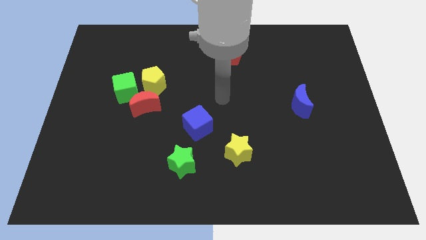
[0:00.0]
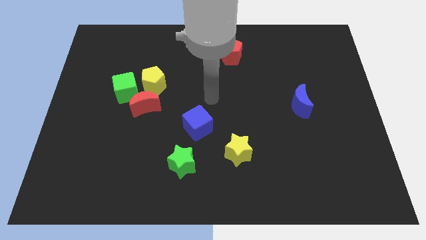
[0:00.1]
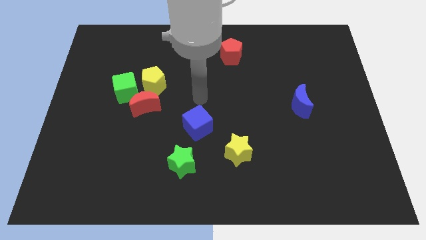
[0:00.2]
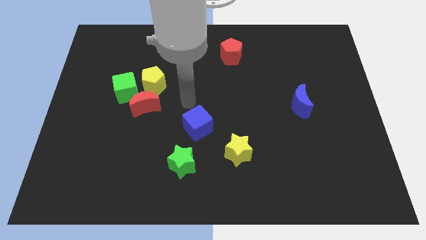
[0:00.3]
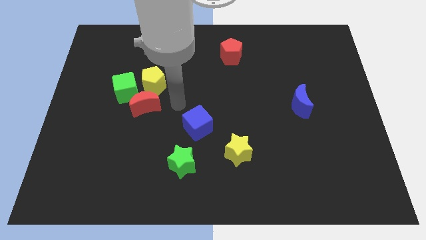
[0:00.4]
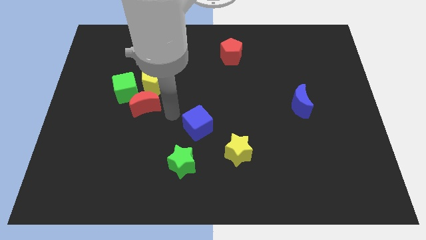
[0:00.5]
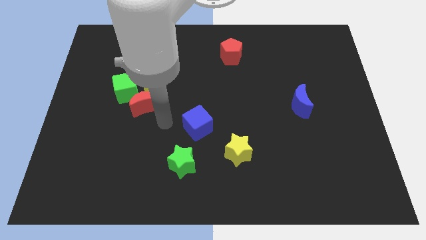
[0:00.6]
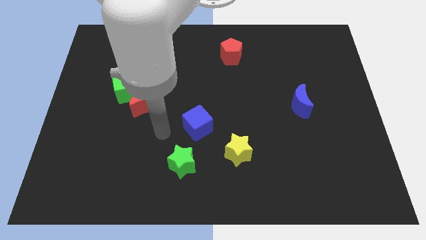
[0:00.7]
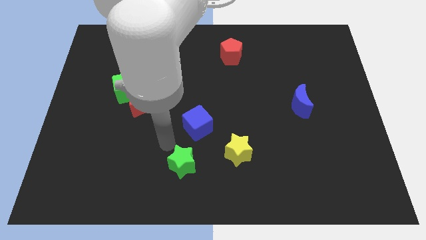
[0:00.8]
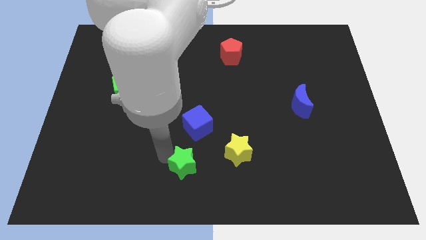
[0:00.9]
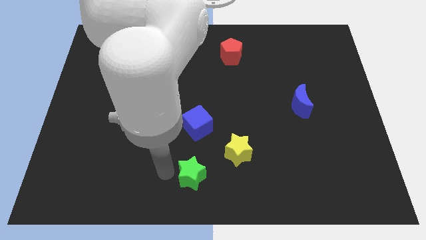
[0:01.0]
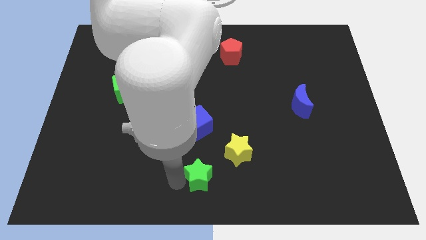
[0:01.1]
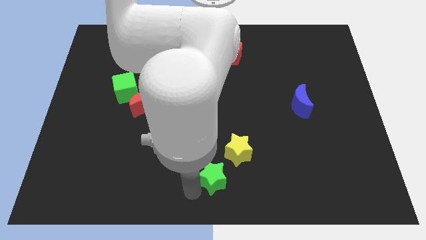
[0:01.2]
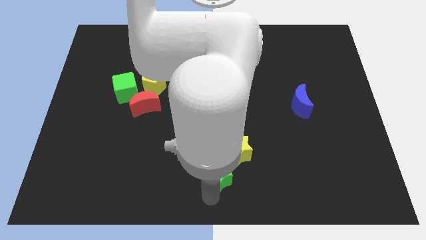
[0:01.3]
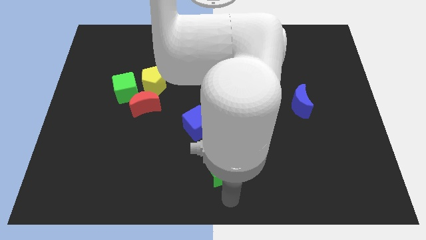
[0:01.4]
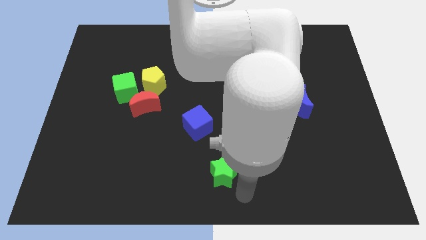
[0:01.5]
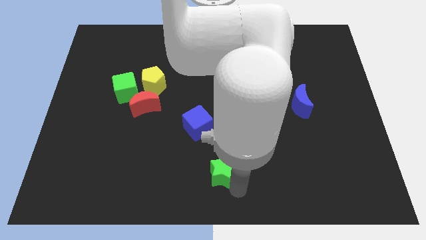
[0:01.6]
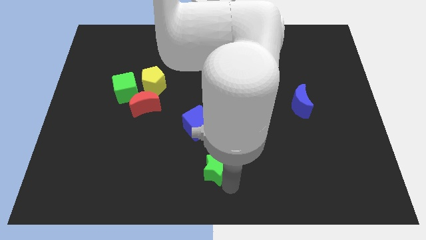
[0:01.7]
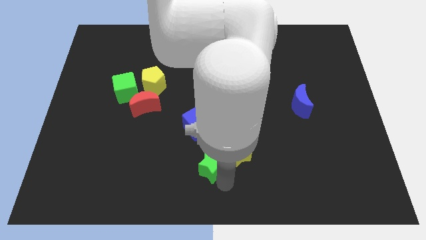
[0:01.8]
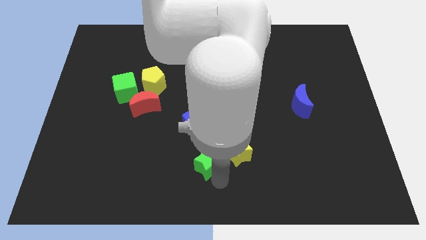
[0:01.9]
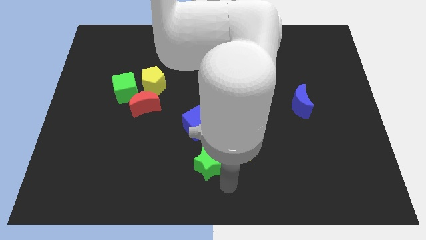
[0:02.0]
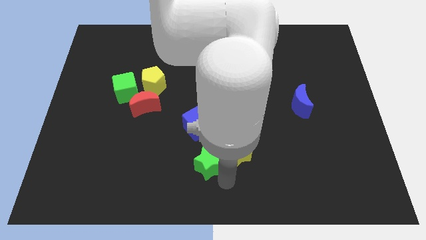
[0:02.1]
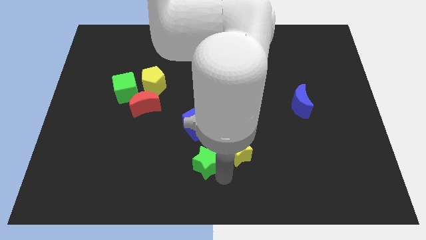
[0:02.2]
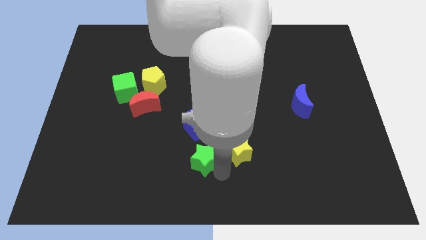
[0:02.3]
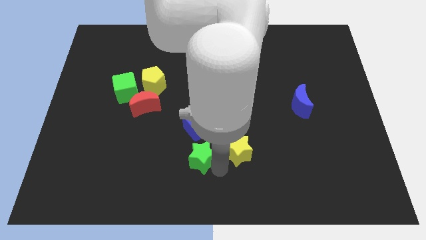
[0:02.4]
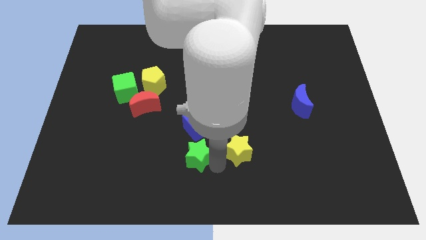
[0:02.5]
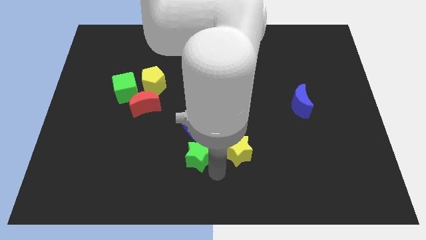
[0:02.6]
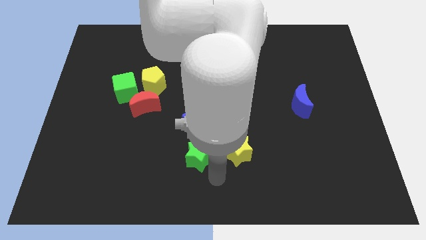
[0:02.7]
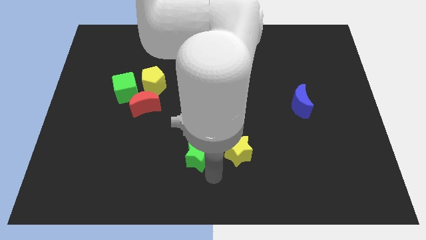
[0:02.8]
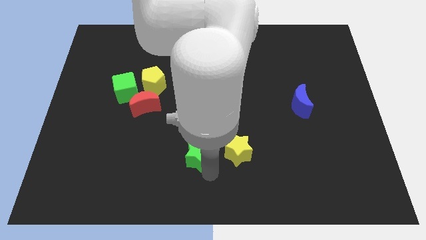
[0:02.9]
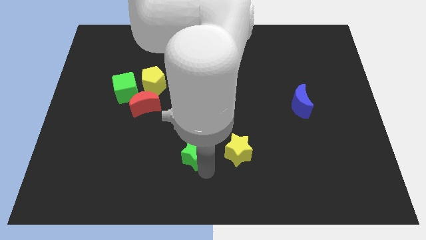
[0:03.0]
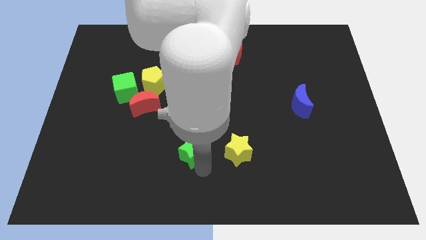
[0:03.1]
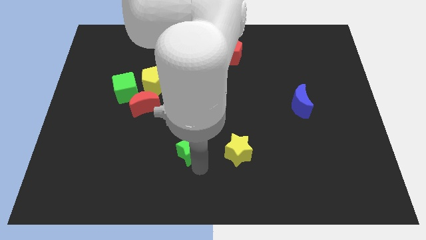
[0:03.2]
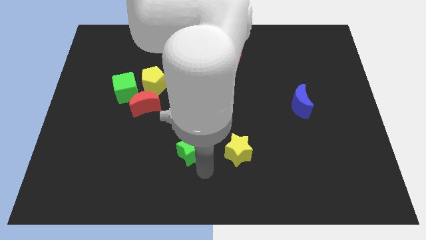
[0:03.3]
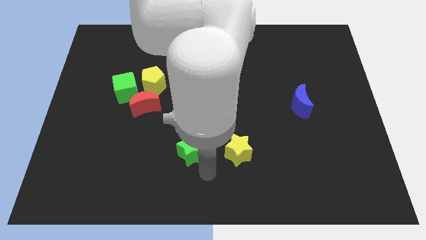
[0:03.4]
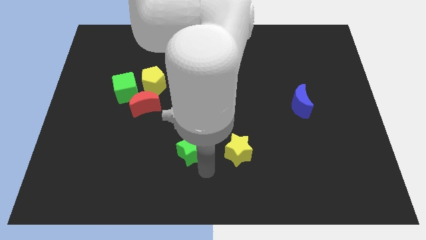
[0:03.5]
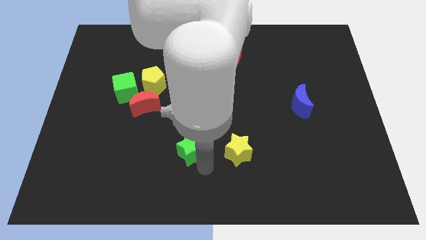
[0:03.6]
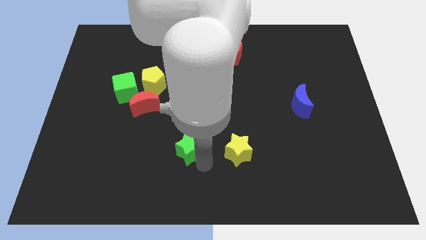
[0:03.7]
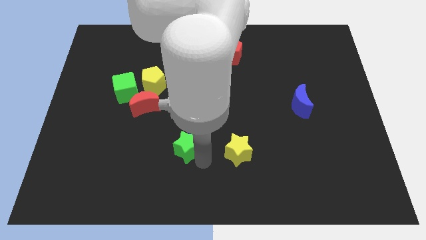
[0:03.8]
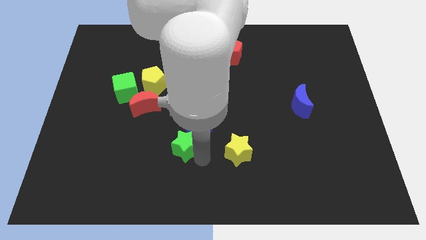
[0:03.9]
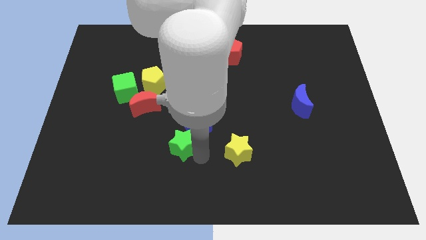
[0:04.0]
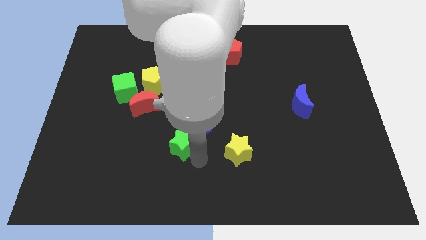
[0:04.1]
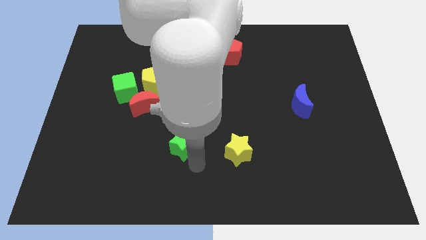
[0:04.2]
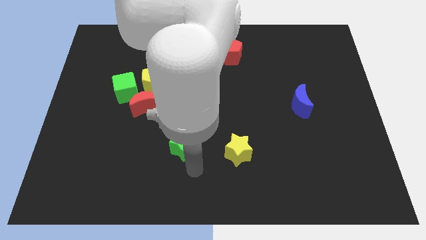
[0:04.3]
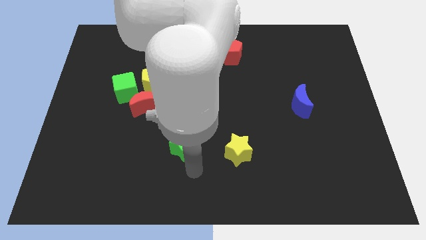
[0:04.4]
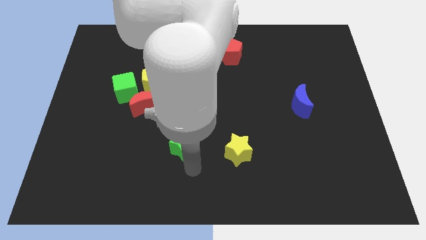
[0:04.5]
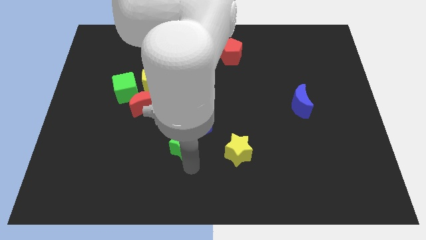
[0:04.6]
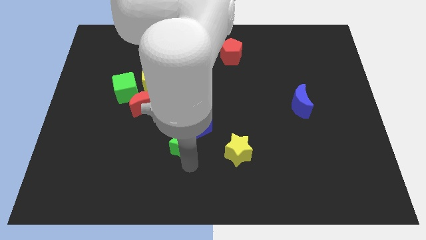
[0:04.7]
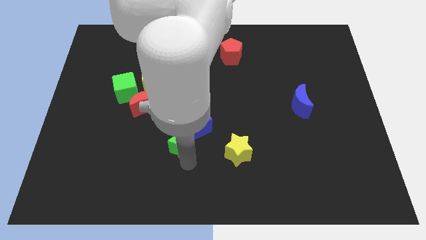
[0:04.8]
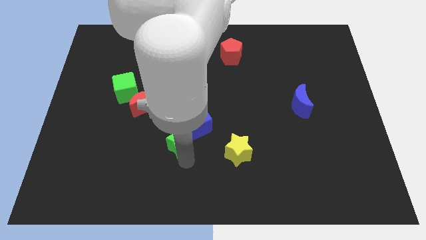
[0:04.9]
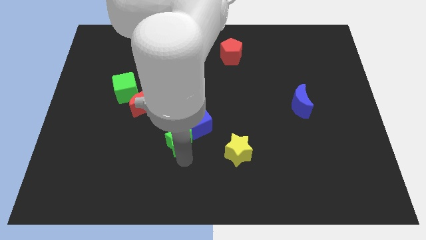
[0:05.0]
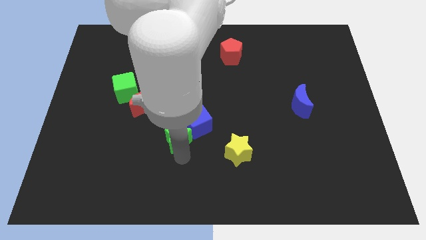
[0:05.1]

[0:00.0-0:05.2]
push the green star to the bottom right of the red moon

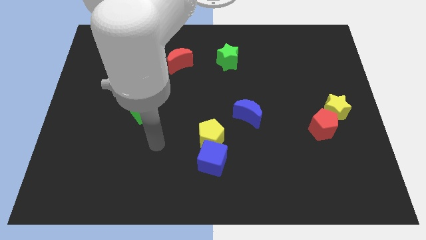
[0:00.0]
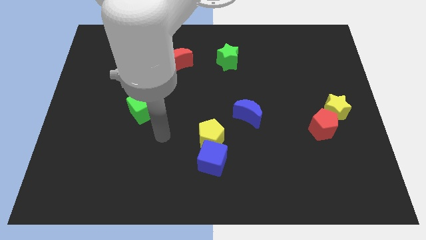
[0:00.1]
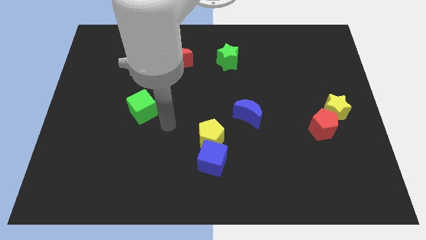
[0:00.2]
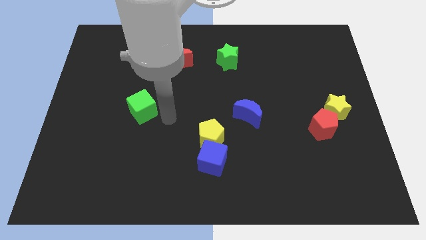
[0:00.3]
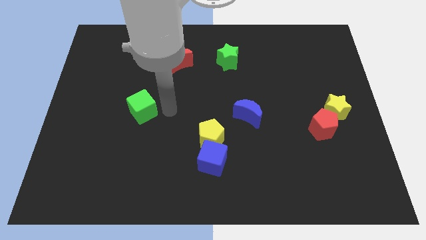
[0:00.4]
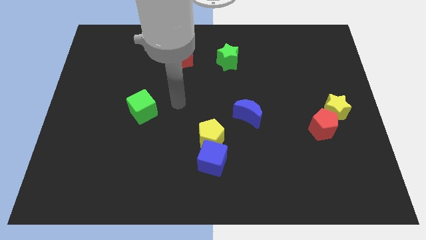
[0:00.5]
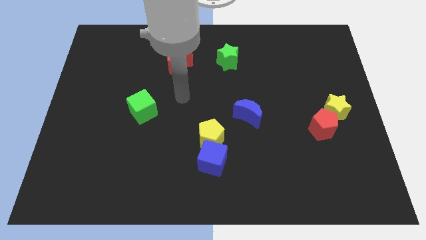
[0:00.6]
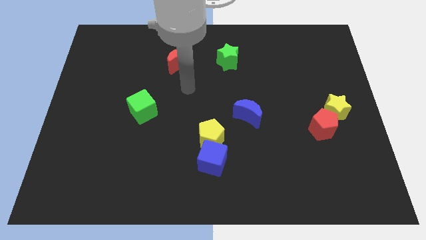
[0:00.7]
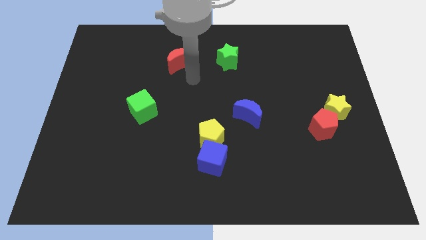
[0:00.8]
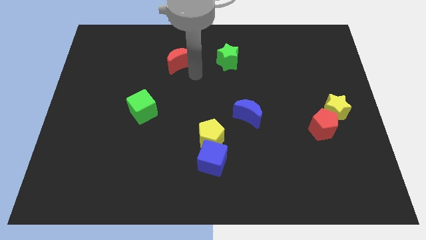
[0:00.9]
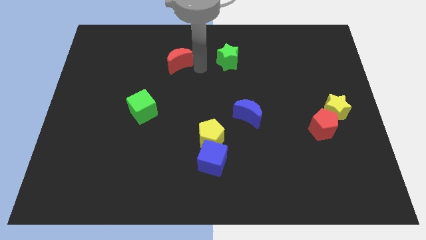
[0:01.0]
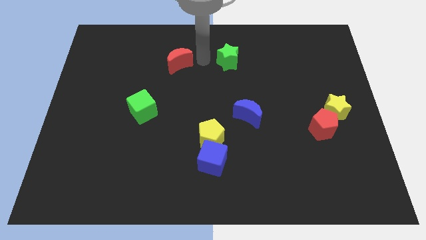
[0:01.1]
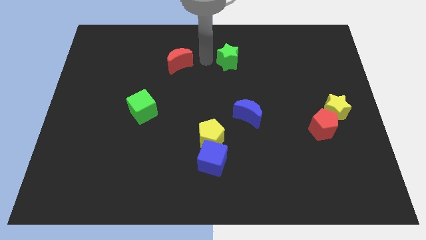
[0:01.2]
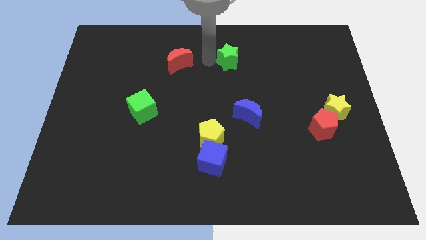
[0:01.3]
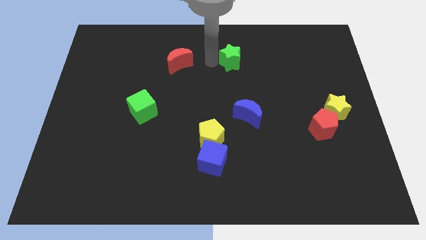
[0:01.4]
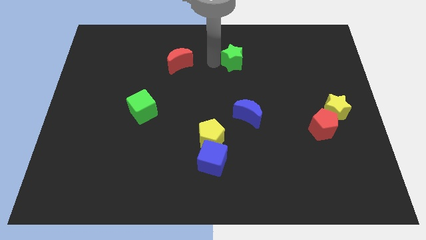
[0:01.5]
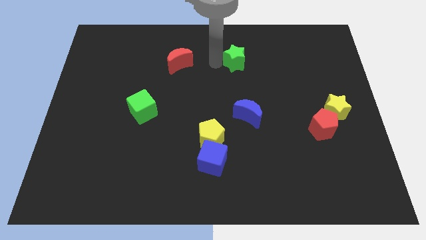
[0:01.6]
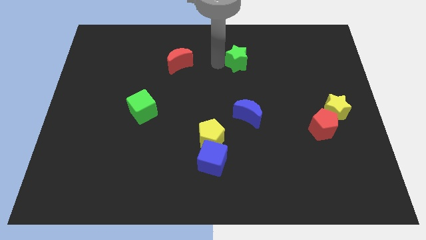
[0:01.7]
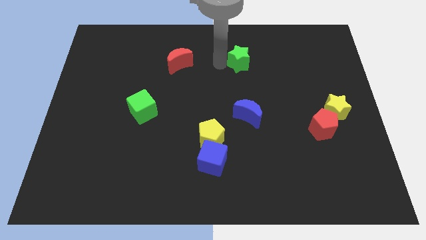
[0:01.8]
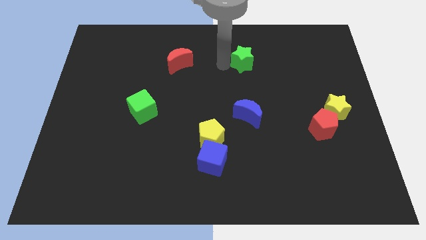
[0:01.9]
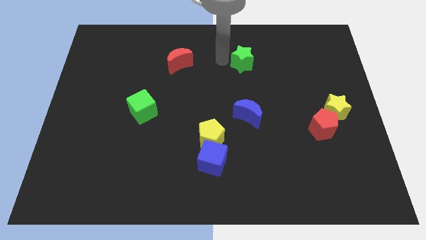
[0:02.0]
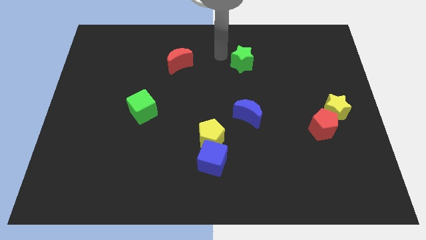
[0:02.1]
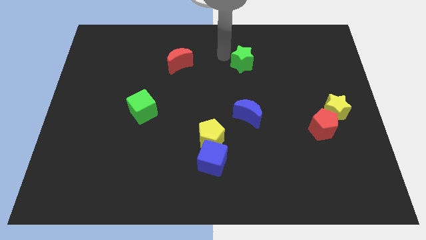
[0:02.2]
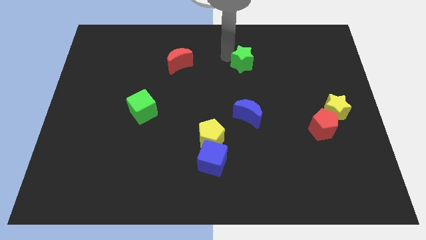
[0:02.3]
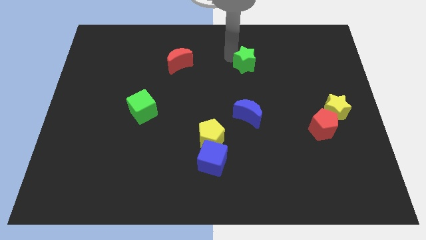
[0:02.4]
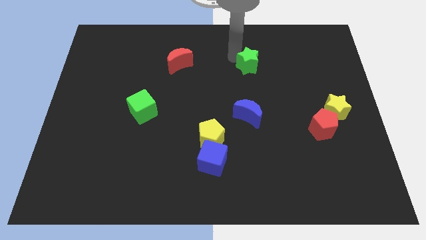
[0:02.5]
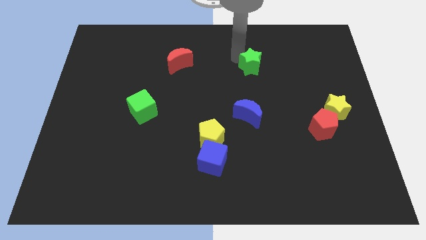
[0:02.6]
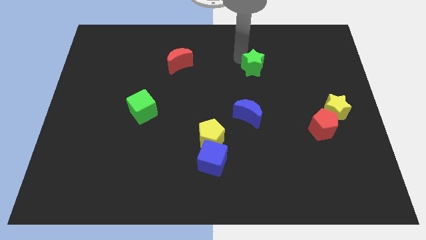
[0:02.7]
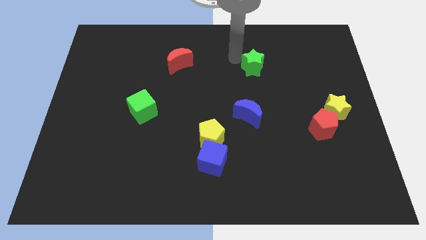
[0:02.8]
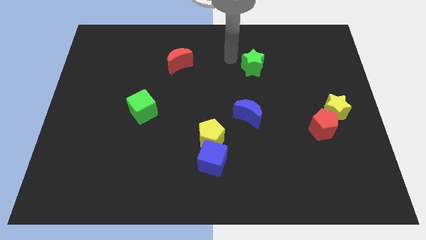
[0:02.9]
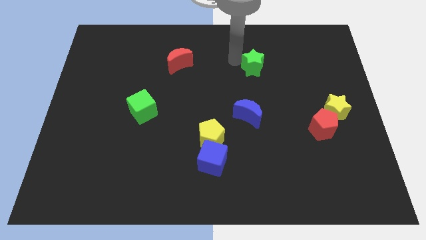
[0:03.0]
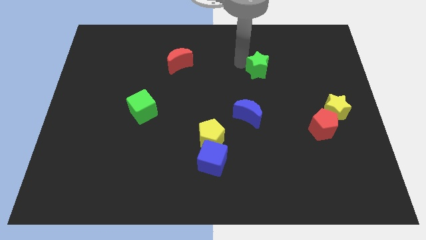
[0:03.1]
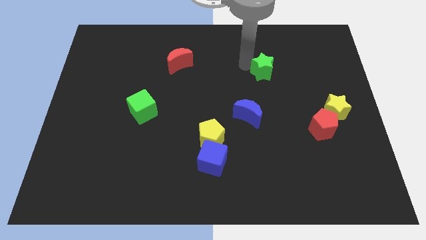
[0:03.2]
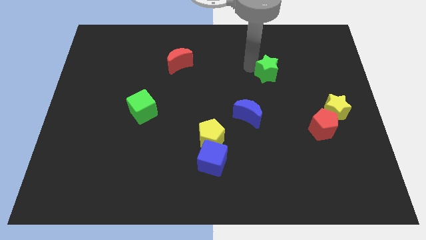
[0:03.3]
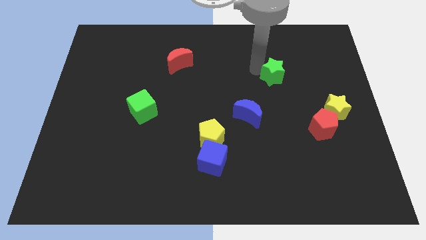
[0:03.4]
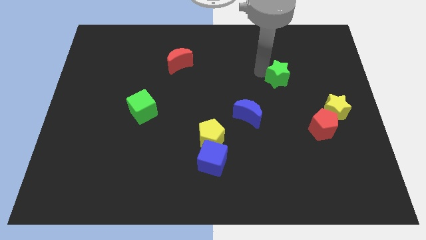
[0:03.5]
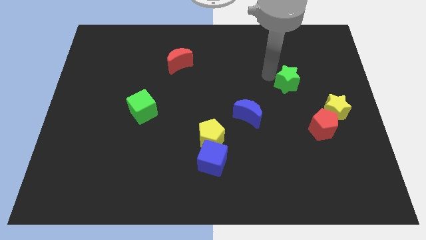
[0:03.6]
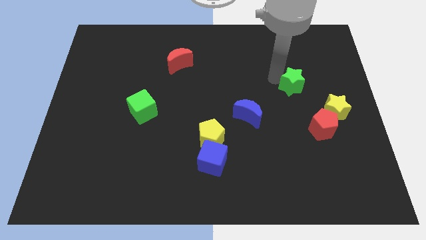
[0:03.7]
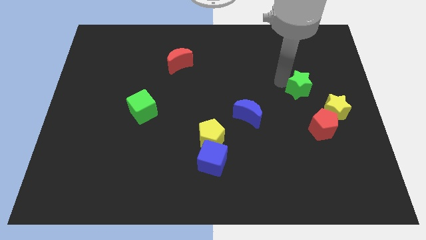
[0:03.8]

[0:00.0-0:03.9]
put the green star to the top of the red pentagon
